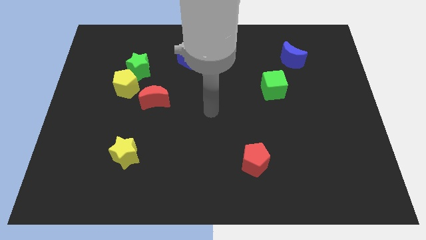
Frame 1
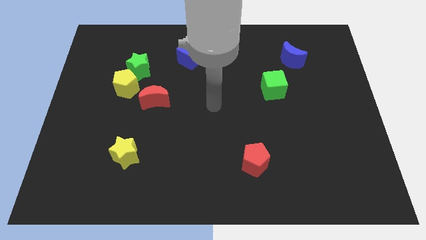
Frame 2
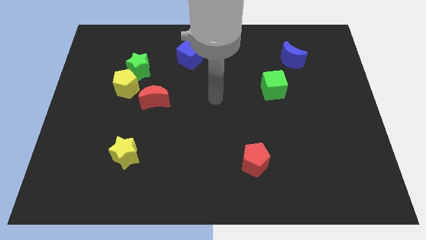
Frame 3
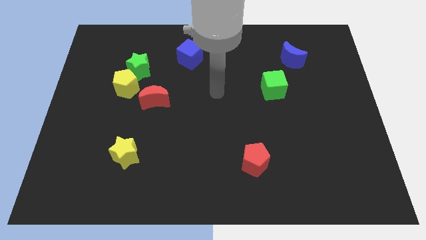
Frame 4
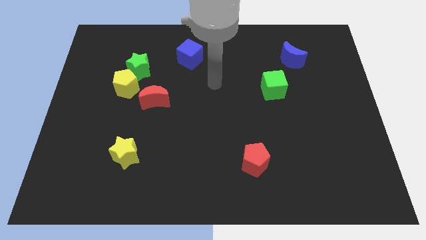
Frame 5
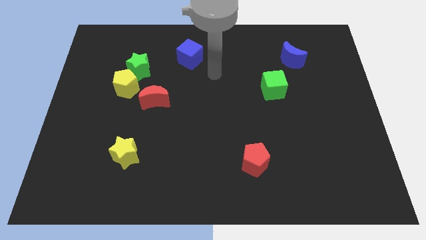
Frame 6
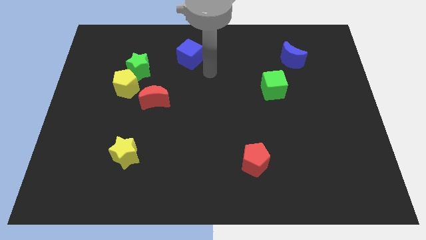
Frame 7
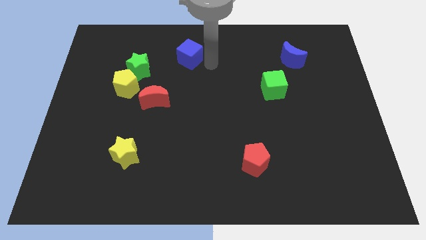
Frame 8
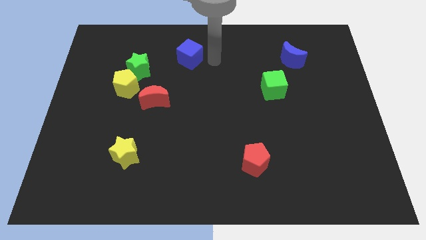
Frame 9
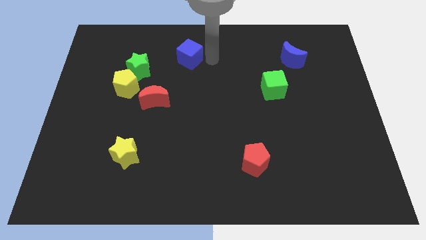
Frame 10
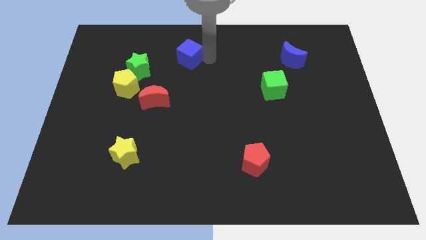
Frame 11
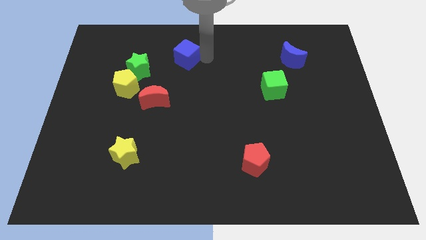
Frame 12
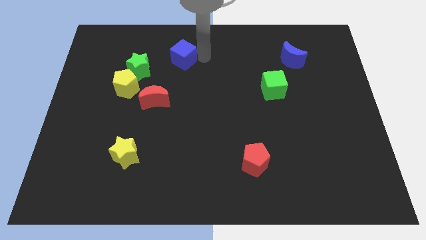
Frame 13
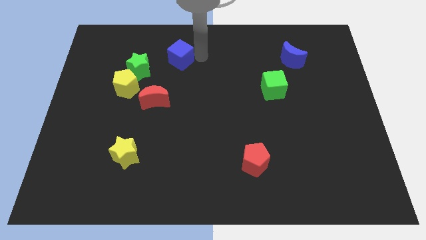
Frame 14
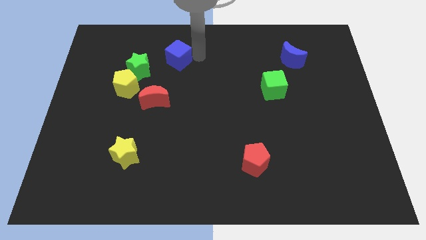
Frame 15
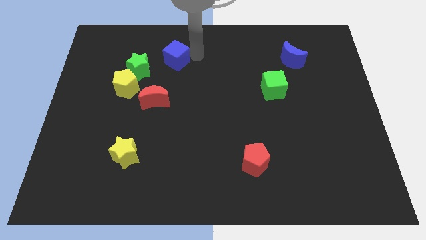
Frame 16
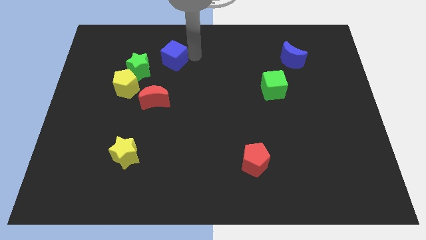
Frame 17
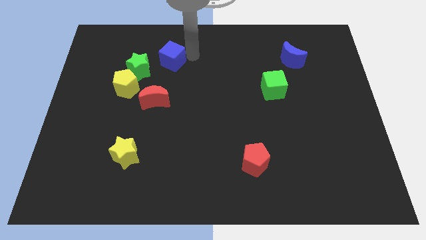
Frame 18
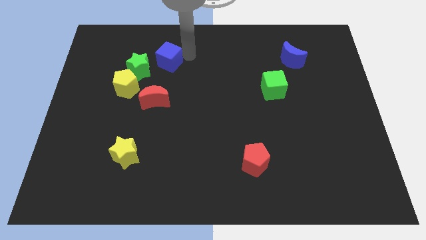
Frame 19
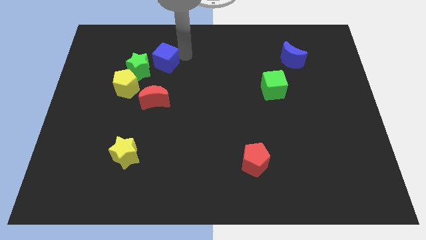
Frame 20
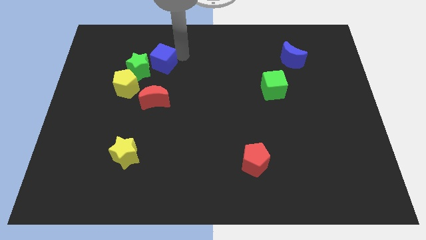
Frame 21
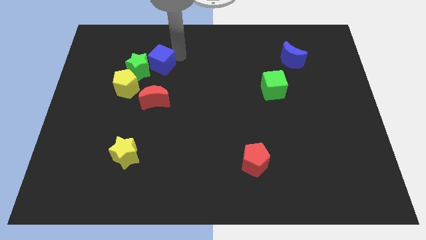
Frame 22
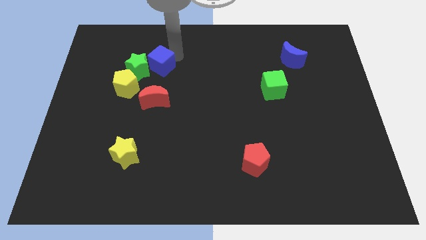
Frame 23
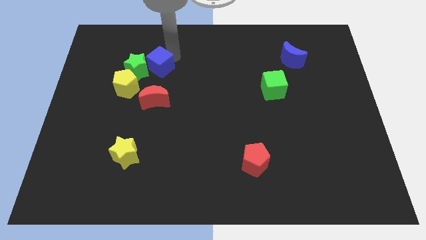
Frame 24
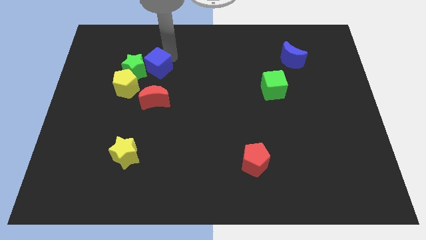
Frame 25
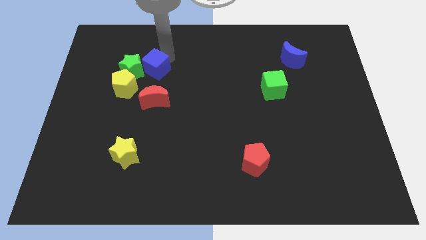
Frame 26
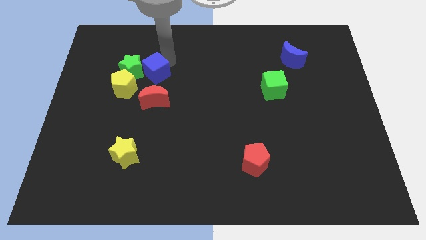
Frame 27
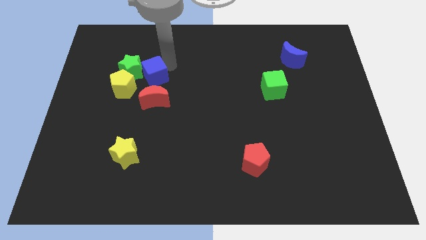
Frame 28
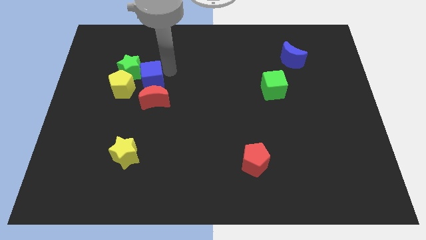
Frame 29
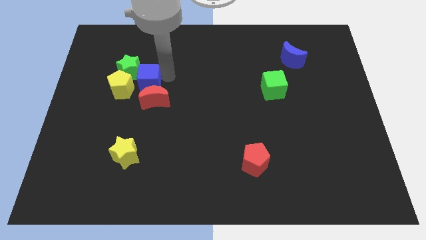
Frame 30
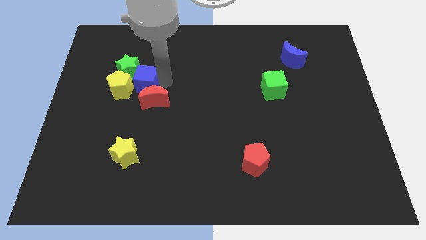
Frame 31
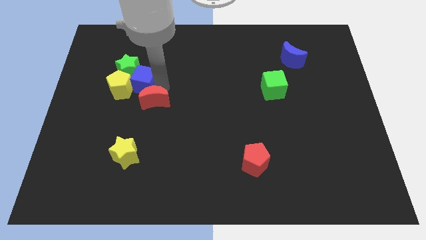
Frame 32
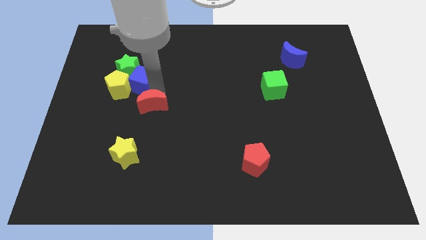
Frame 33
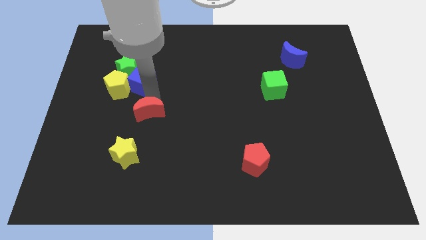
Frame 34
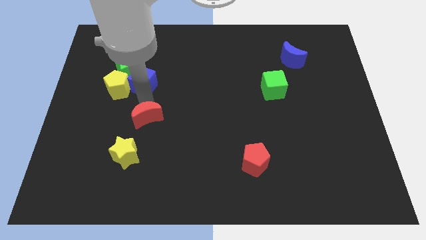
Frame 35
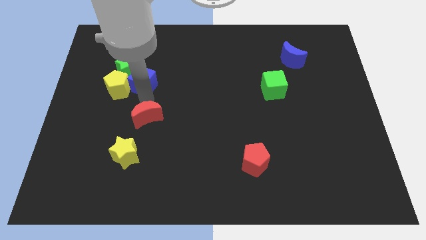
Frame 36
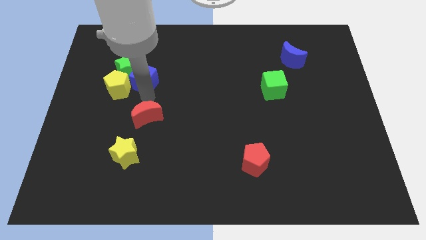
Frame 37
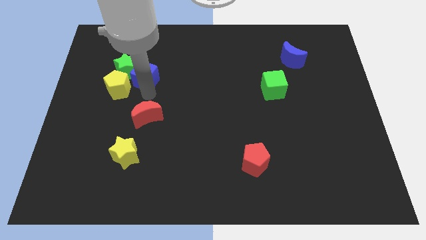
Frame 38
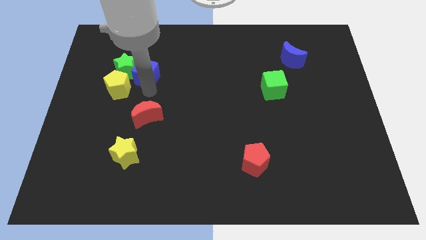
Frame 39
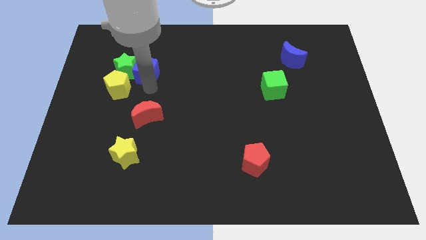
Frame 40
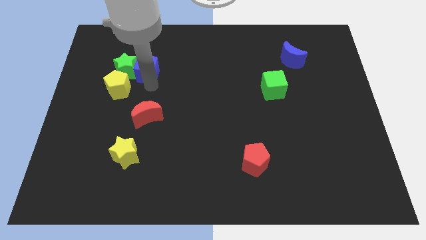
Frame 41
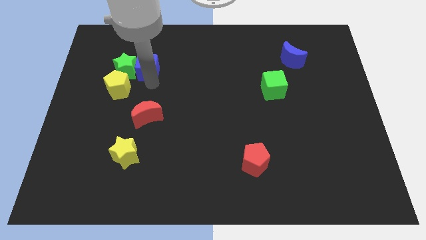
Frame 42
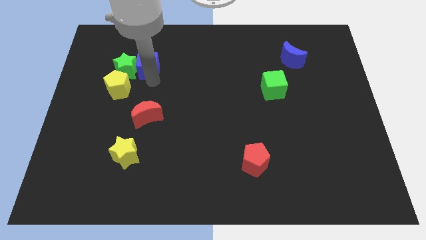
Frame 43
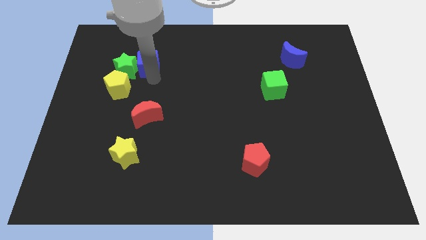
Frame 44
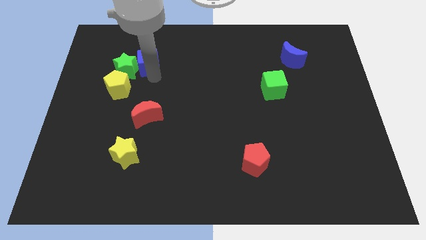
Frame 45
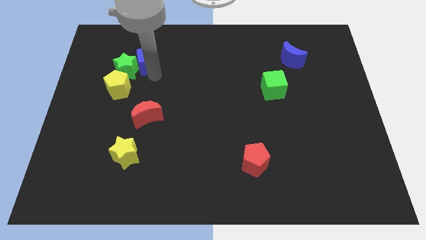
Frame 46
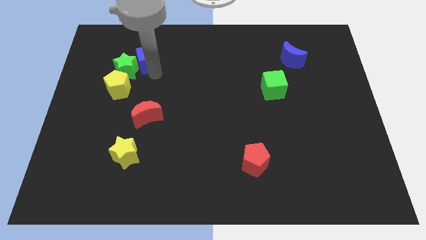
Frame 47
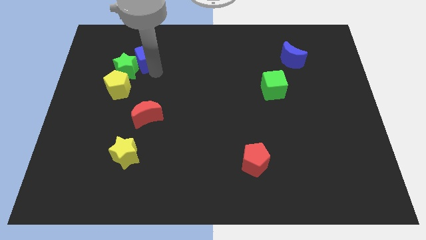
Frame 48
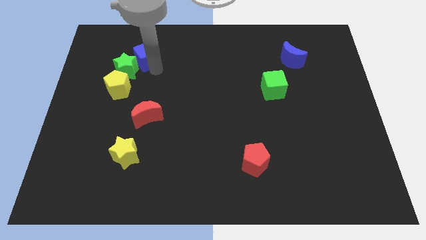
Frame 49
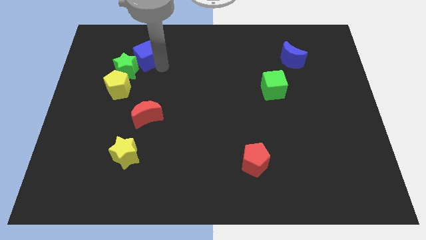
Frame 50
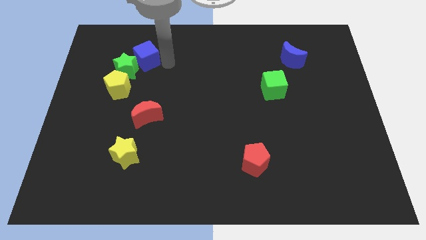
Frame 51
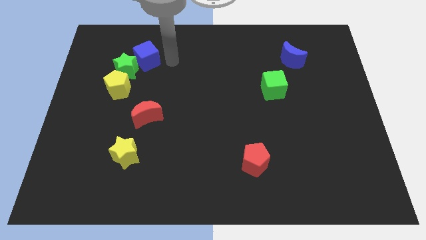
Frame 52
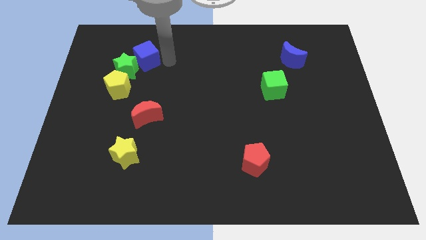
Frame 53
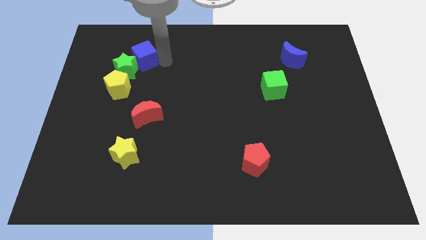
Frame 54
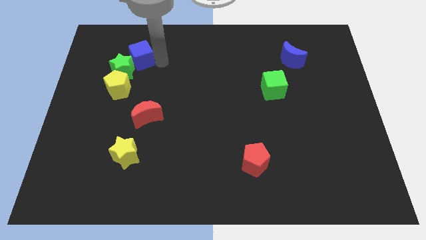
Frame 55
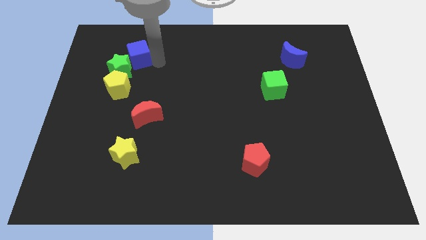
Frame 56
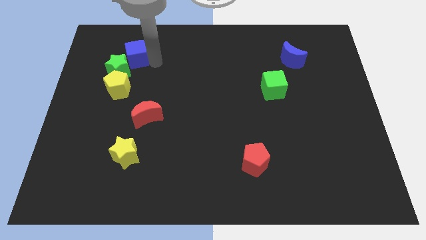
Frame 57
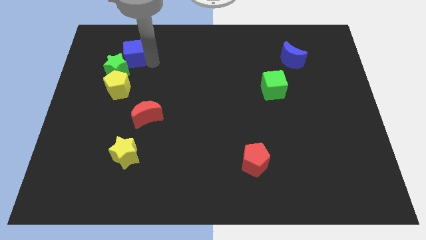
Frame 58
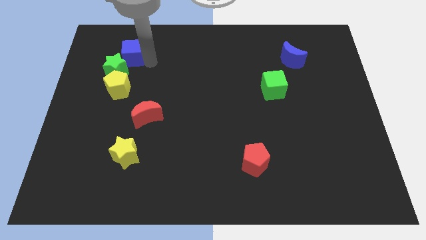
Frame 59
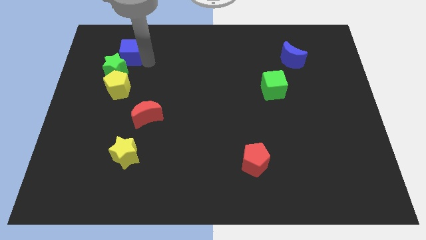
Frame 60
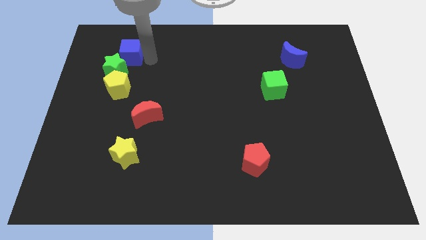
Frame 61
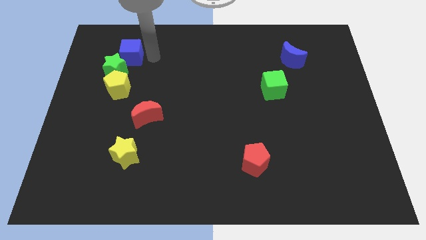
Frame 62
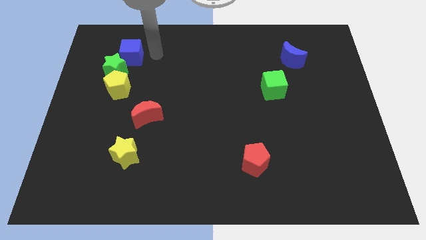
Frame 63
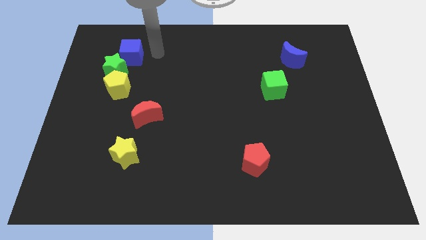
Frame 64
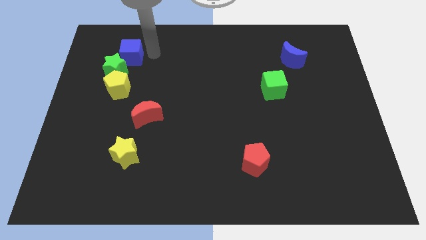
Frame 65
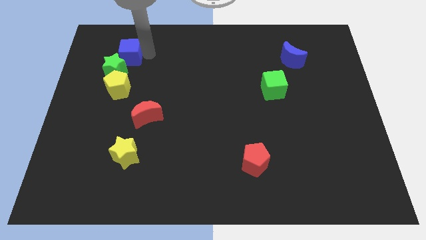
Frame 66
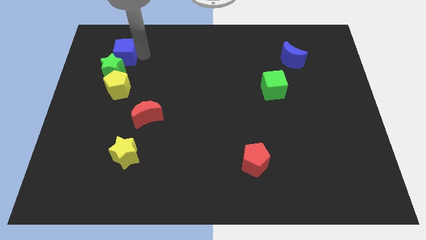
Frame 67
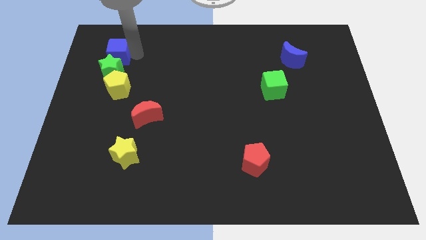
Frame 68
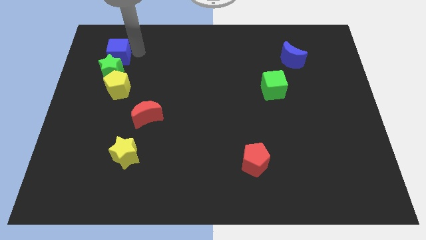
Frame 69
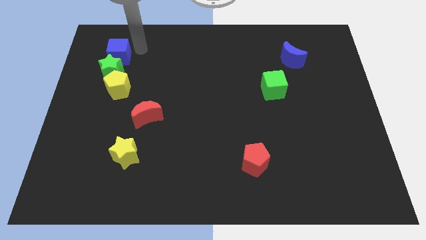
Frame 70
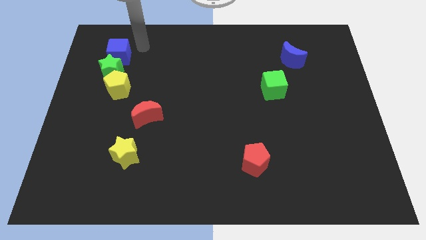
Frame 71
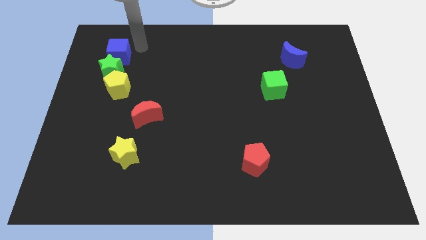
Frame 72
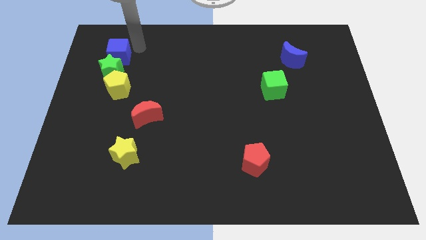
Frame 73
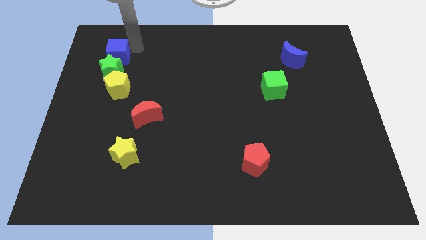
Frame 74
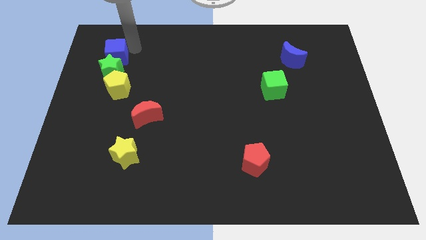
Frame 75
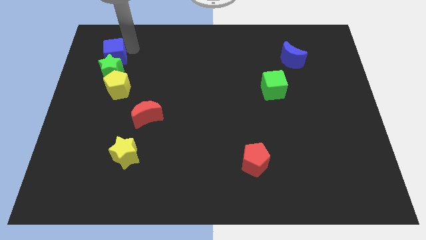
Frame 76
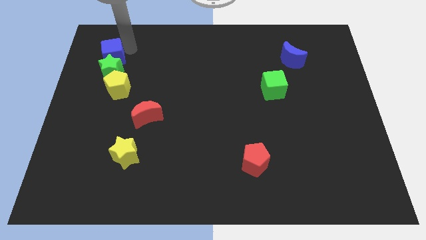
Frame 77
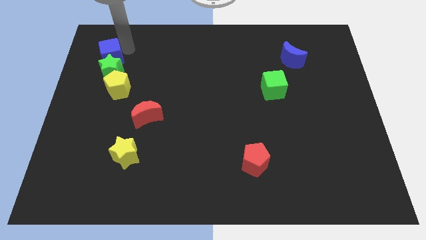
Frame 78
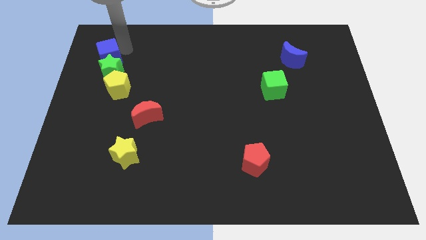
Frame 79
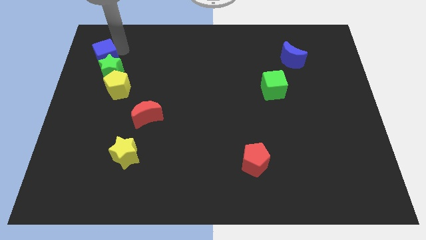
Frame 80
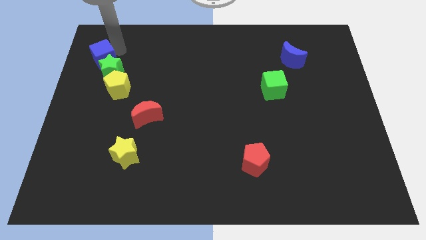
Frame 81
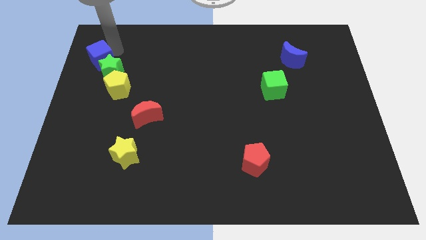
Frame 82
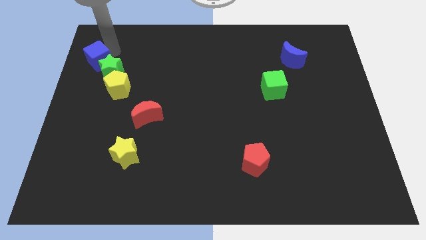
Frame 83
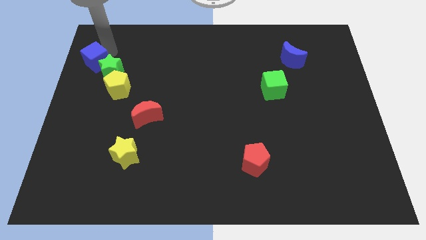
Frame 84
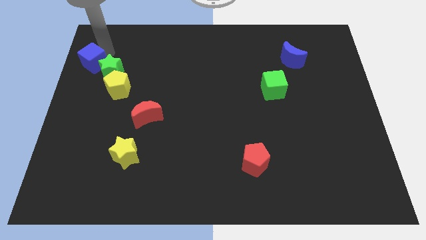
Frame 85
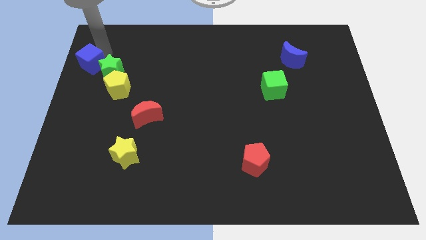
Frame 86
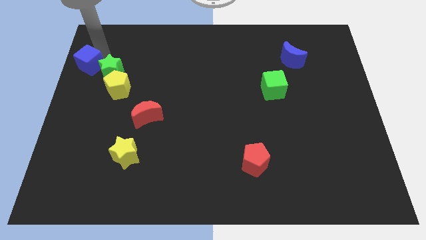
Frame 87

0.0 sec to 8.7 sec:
move the blue cube to the left side
